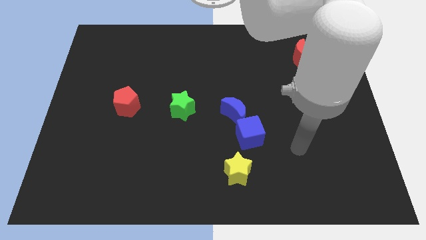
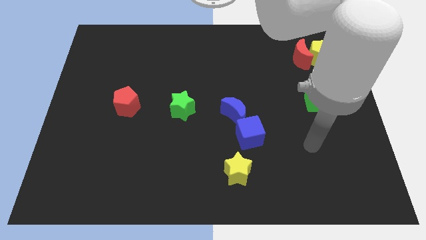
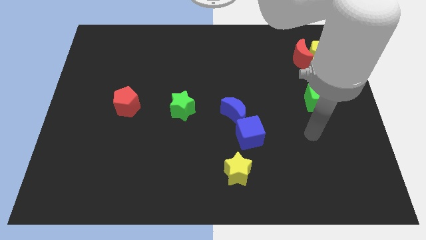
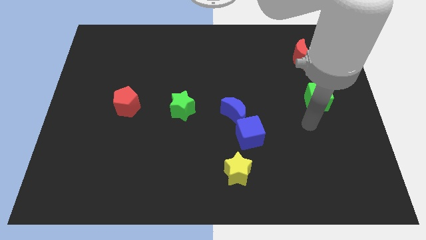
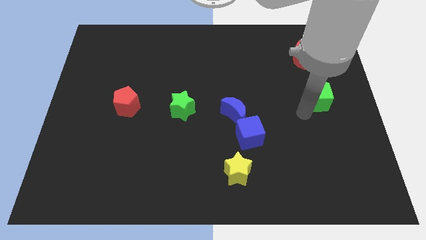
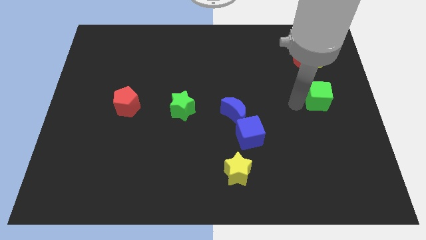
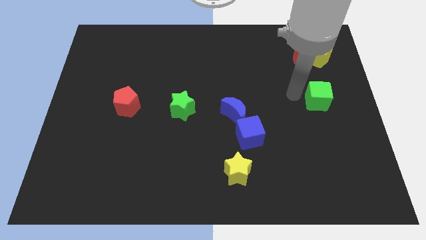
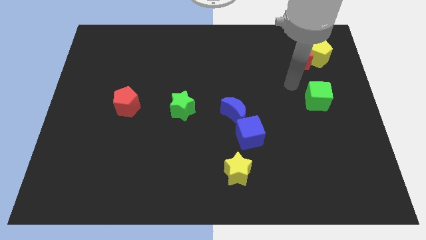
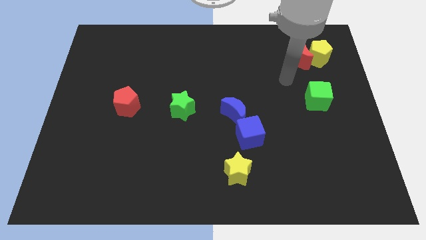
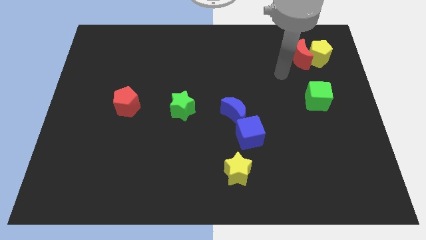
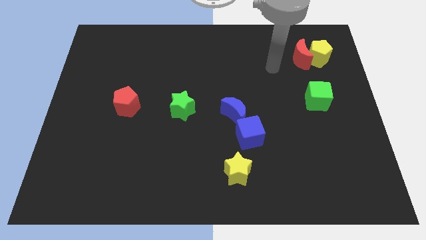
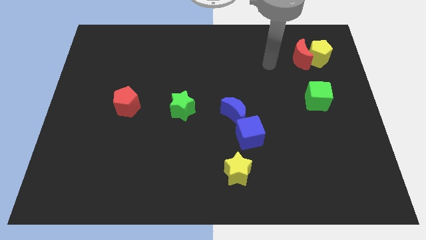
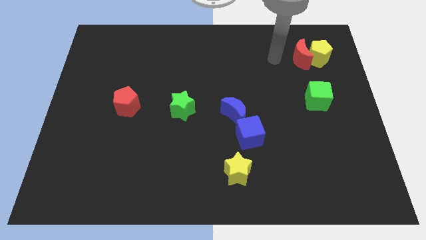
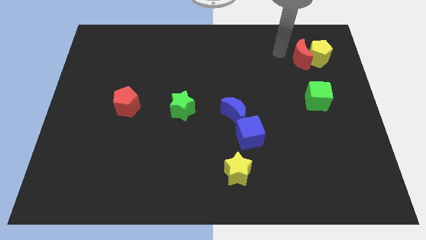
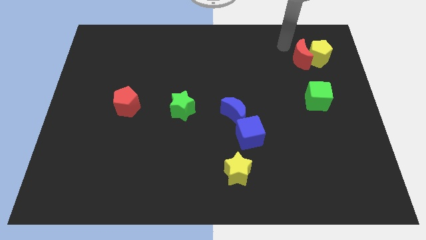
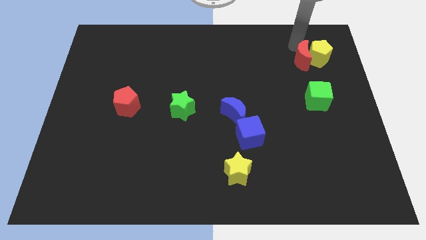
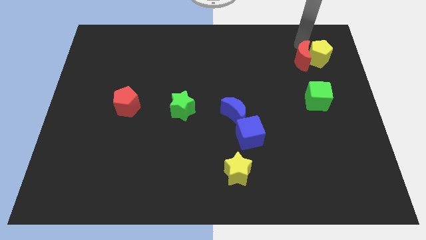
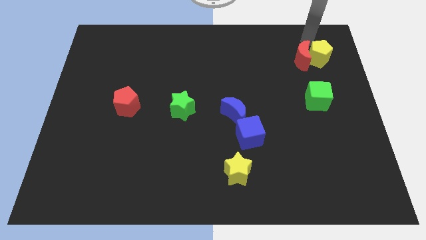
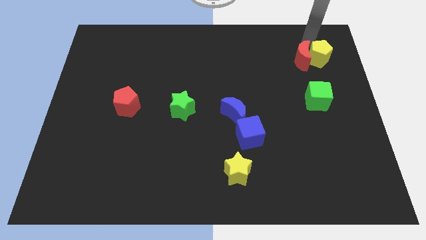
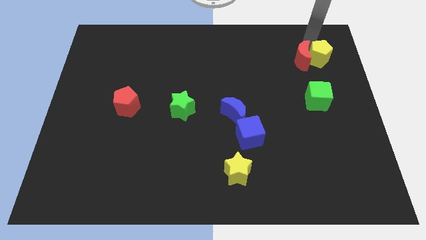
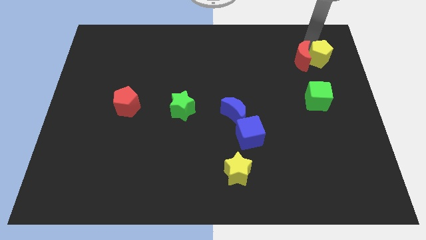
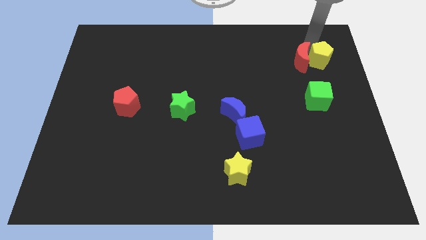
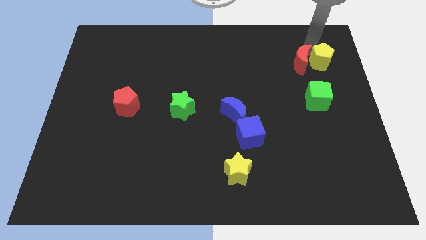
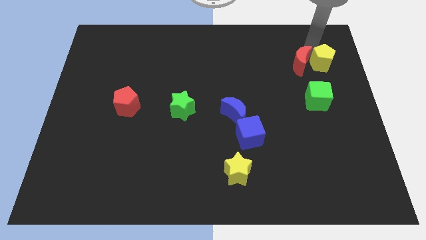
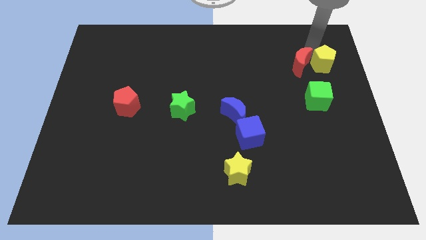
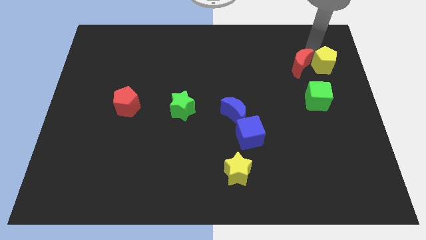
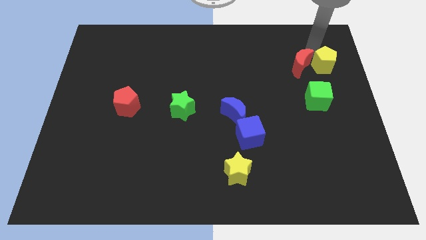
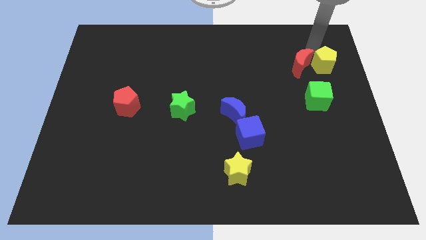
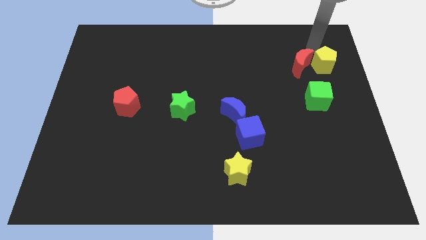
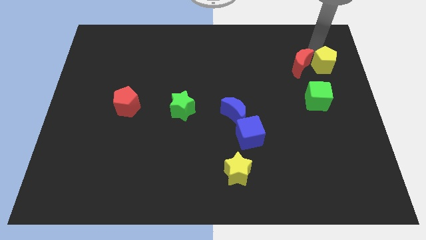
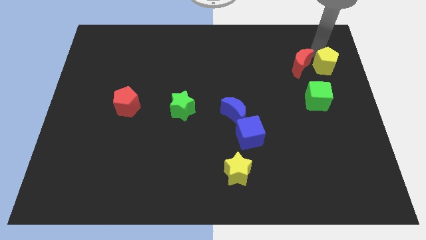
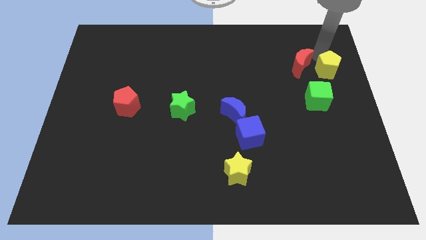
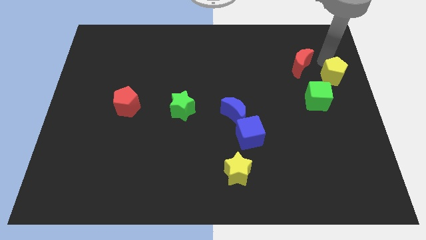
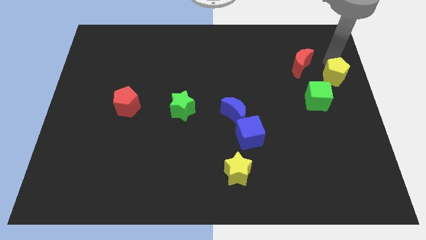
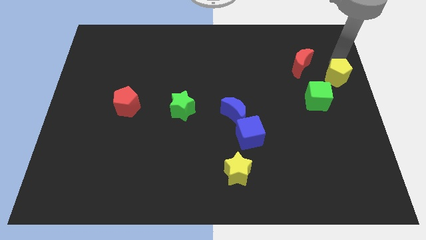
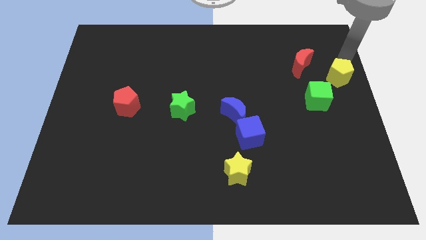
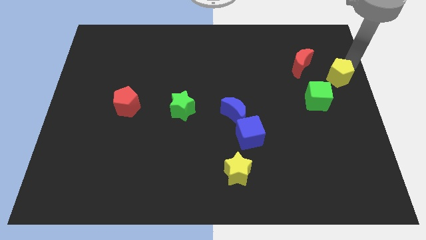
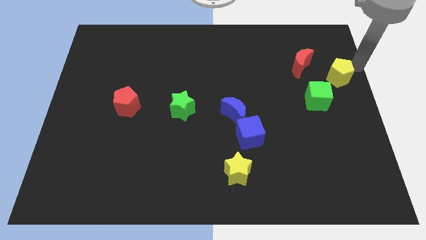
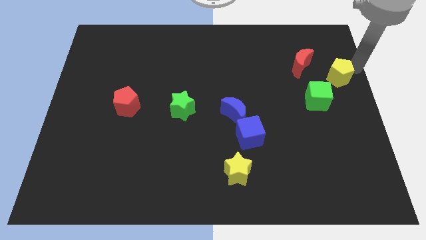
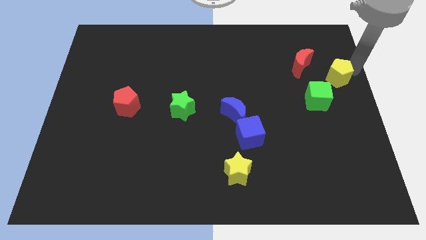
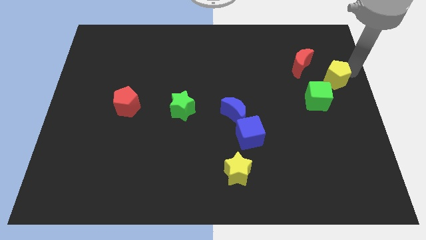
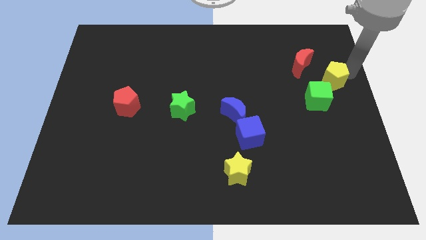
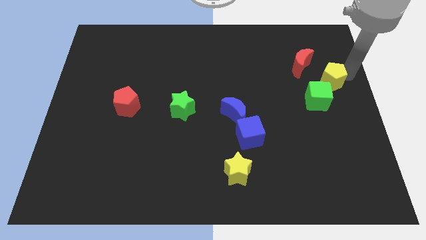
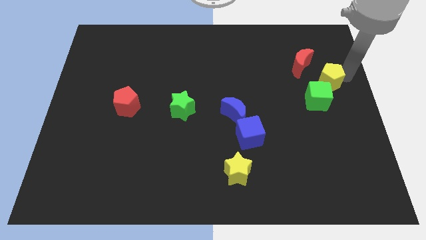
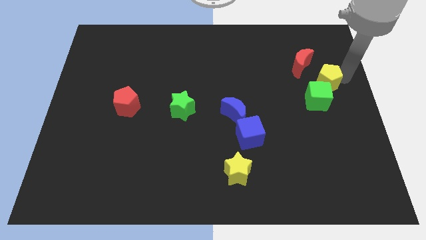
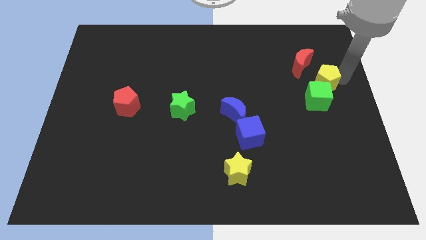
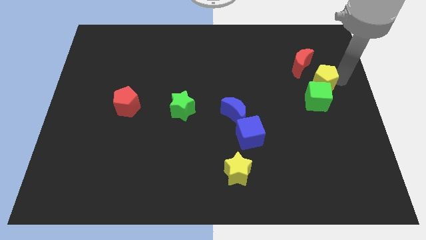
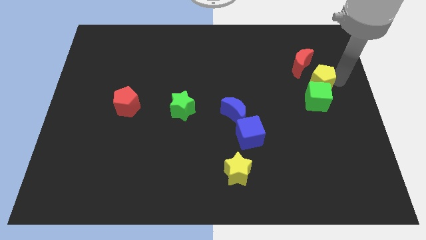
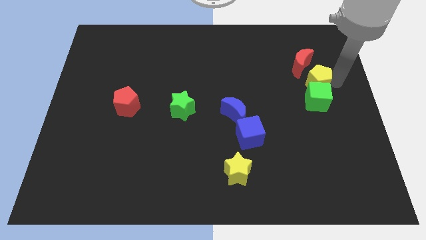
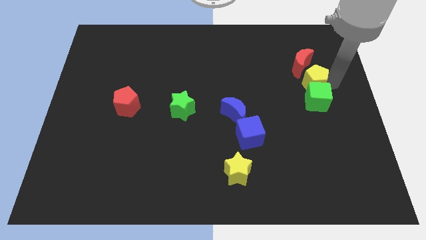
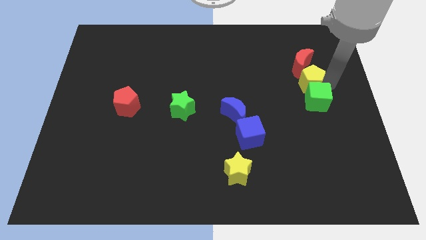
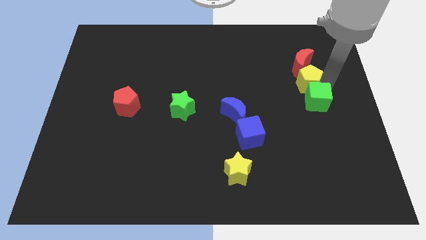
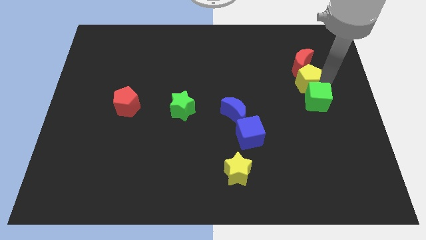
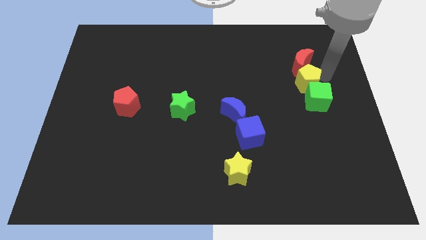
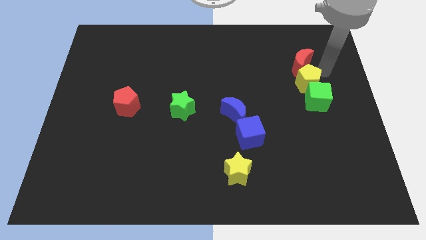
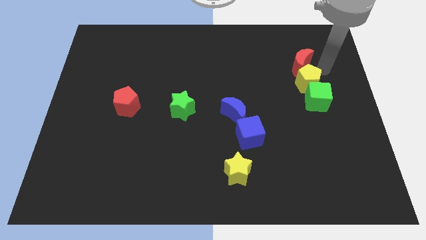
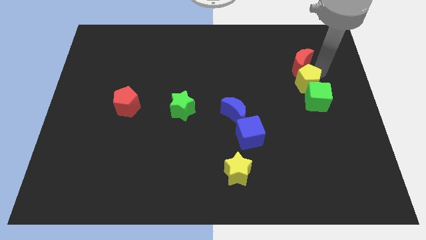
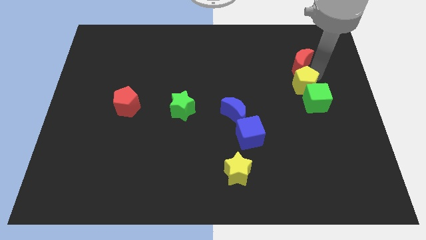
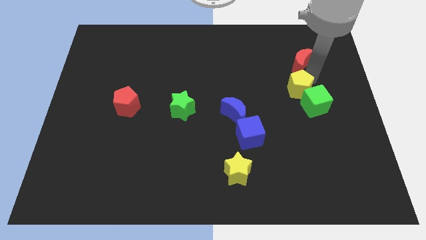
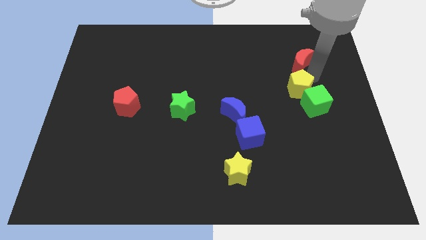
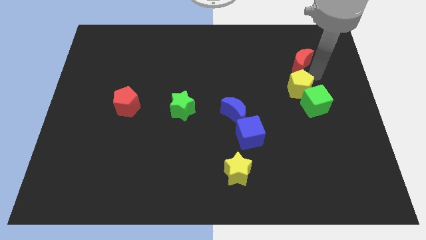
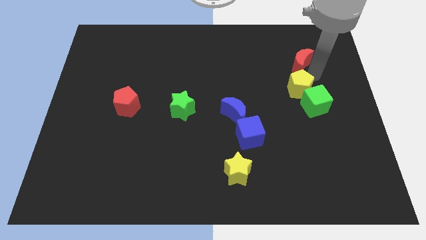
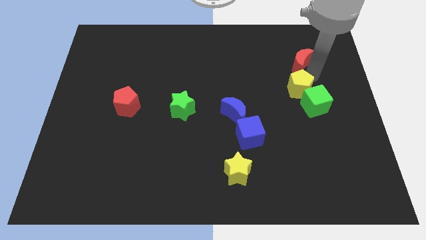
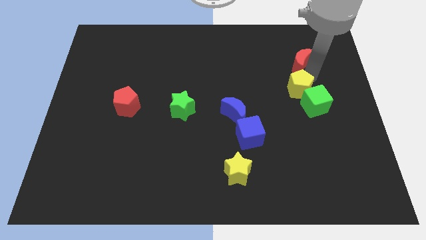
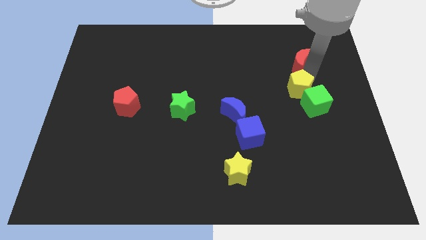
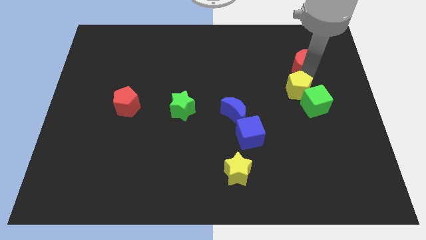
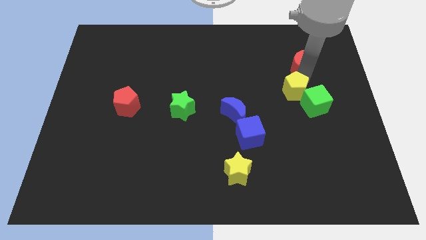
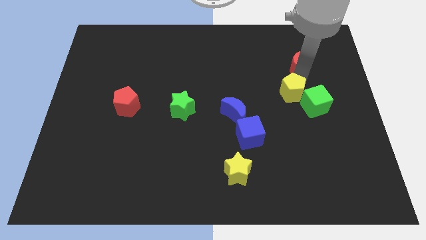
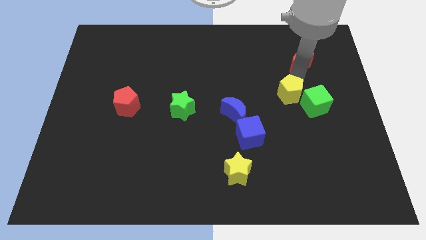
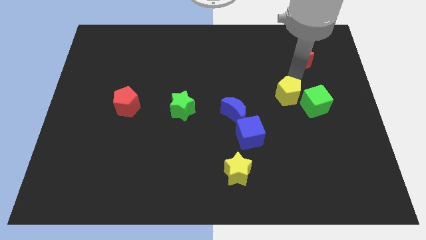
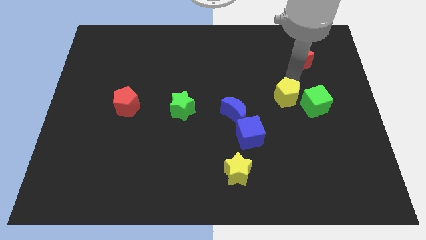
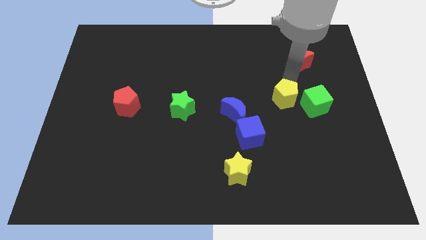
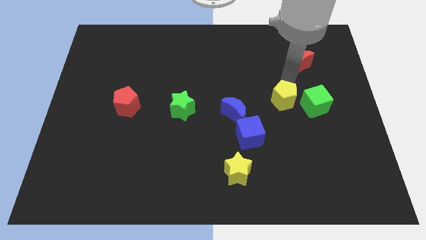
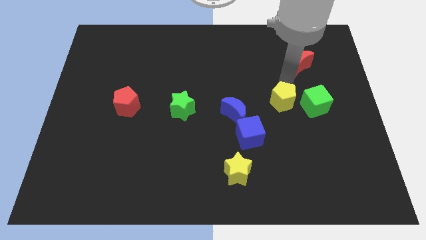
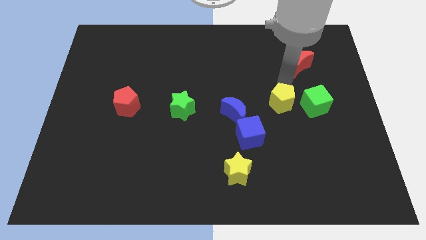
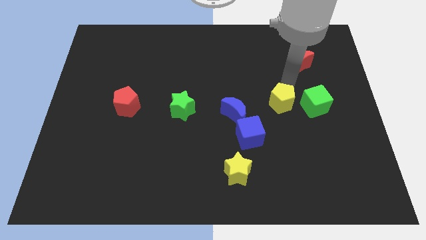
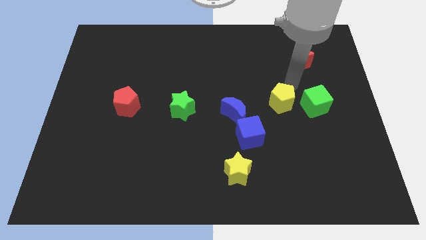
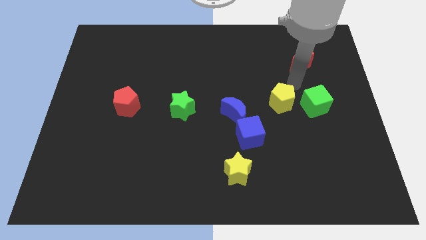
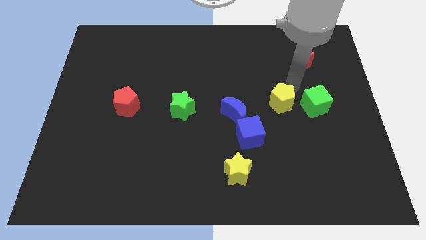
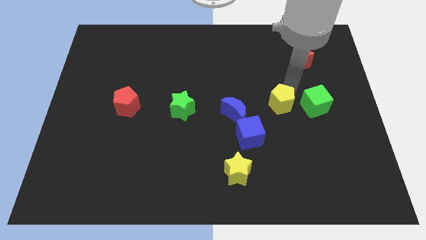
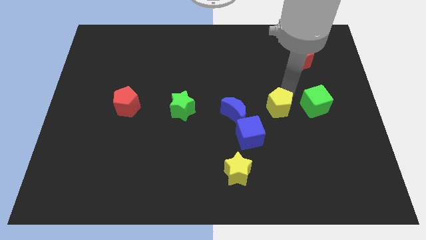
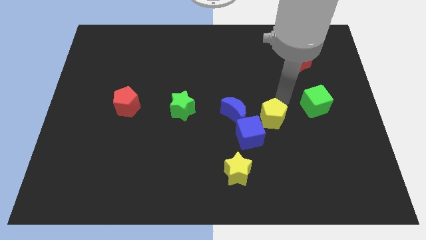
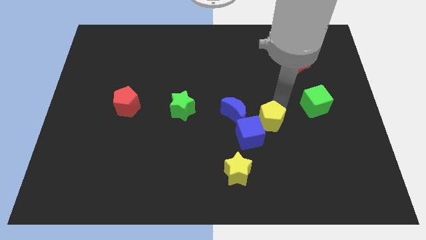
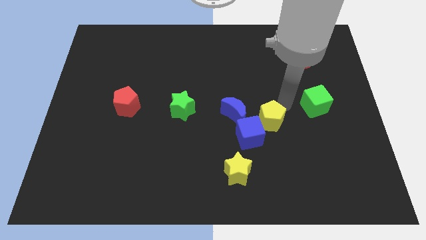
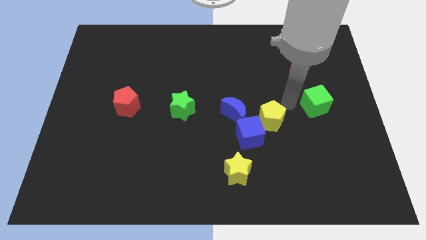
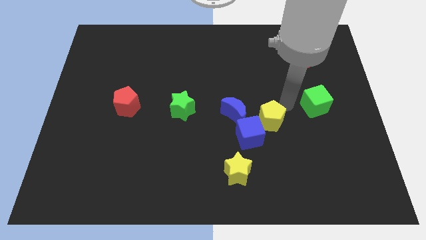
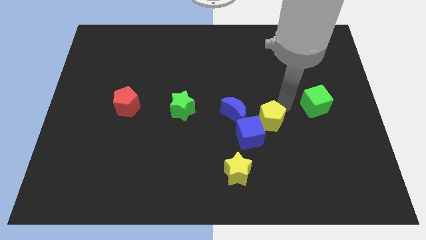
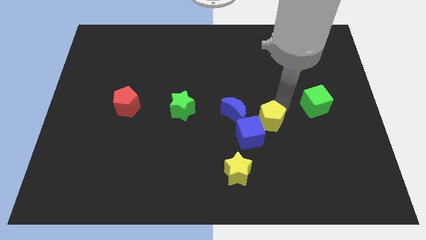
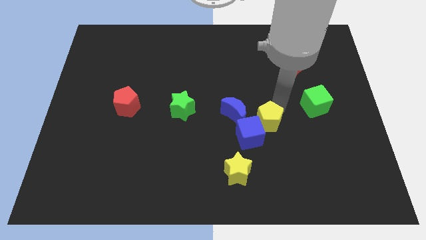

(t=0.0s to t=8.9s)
put the yellow pentagon next to the blue cube
